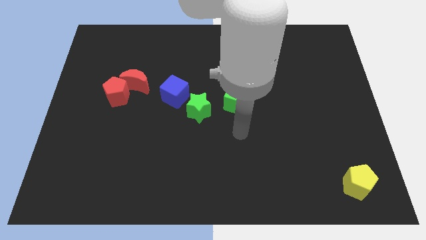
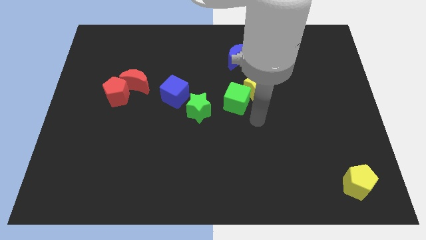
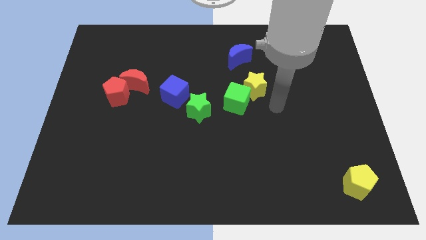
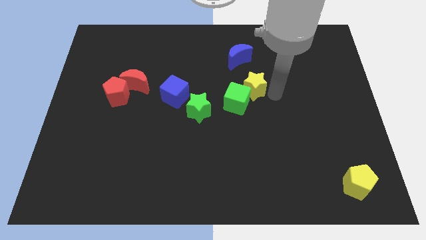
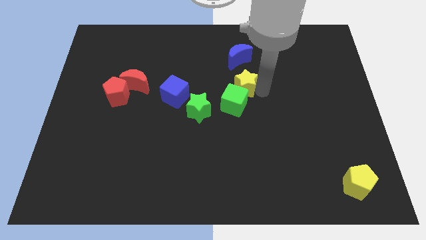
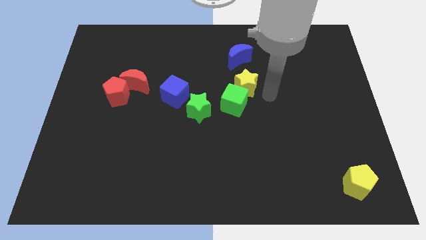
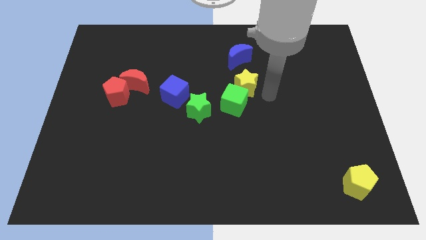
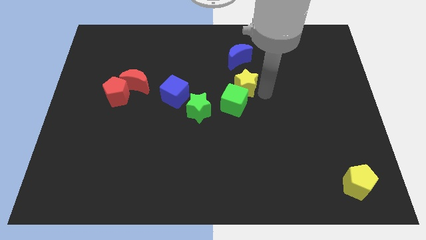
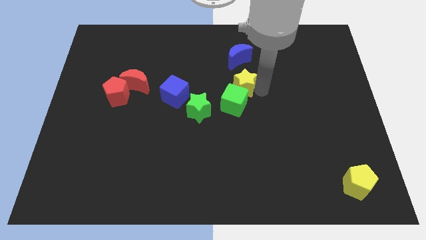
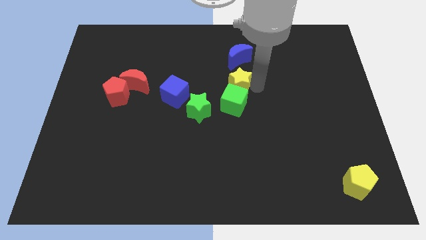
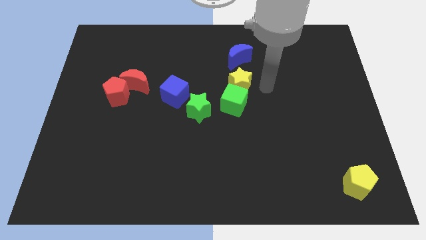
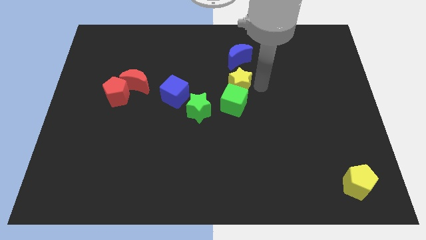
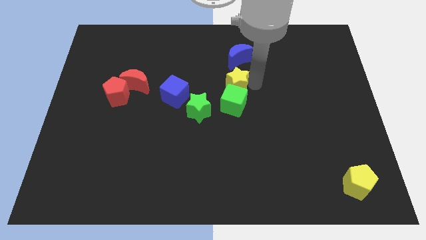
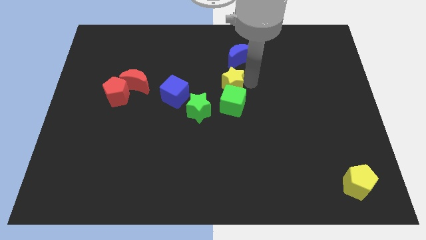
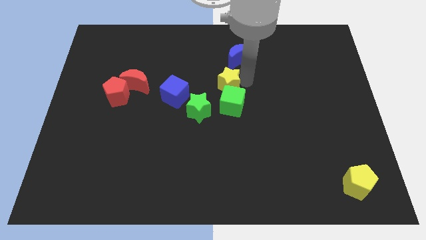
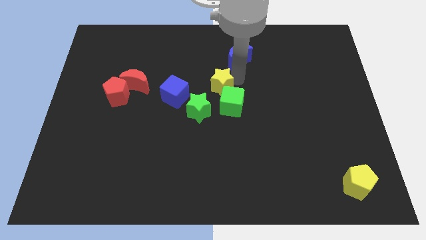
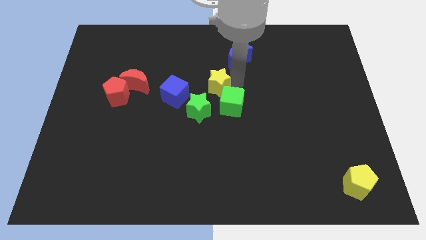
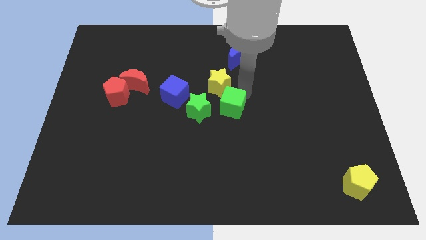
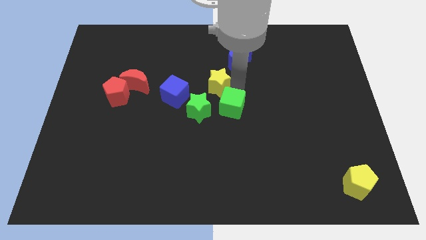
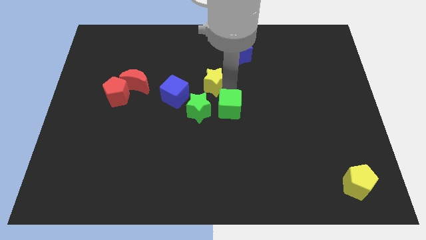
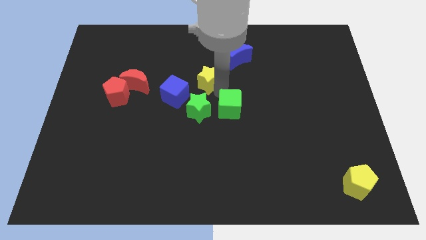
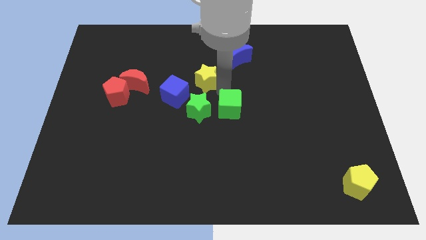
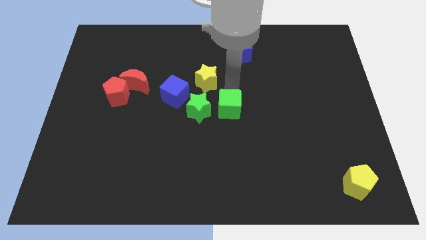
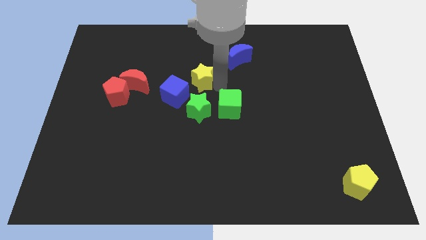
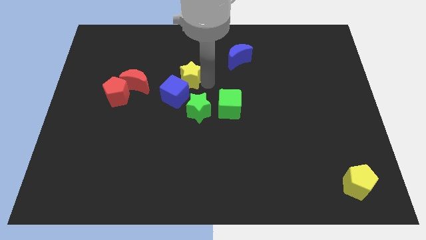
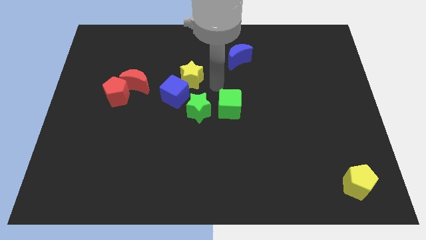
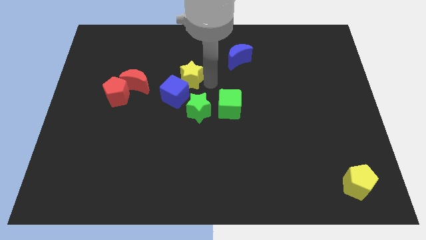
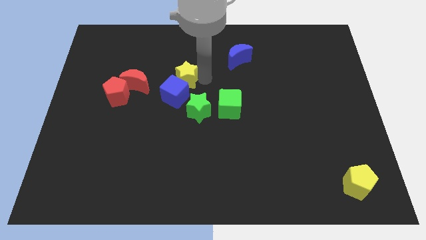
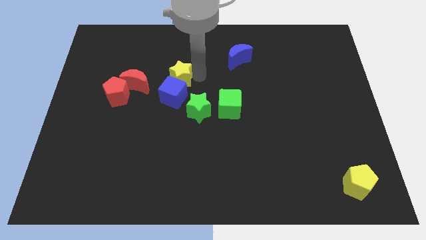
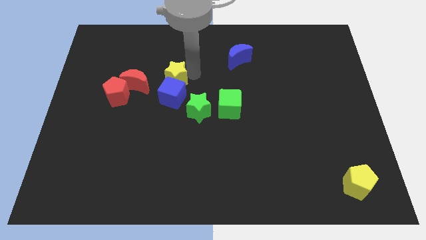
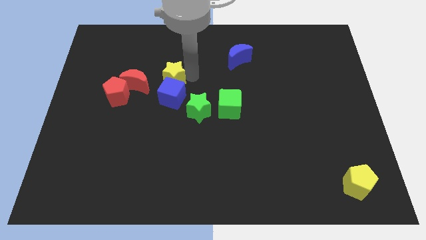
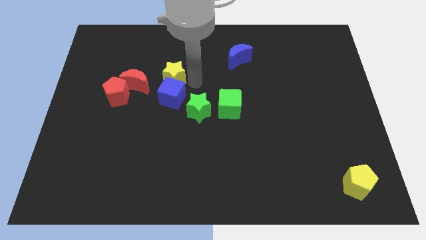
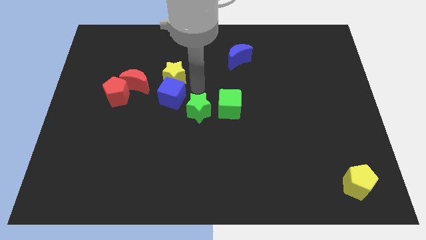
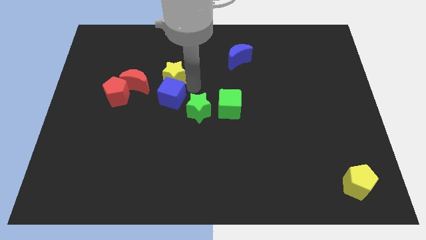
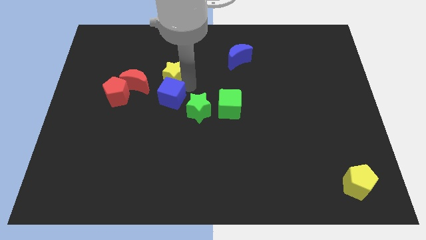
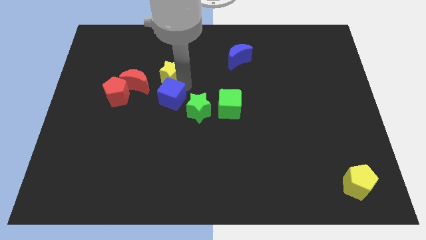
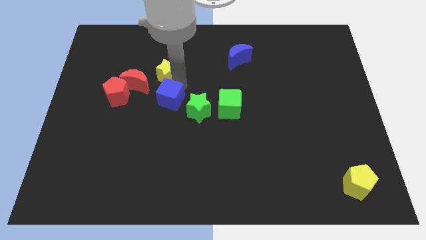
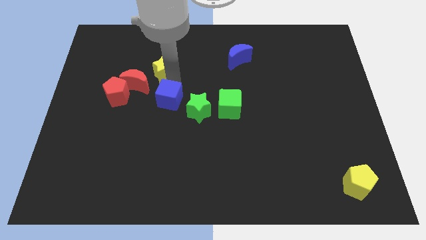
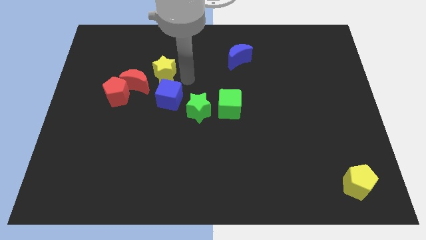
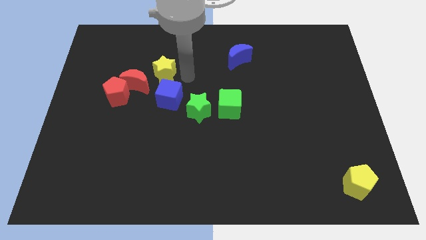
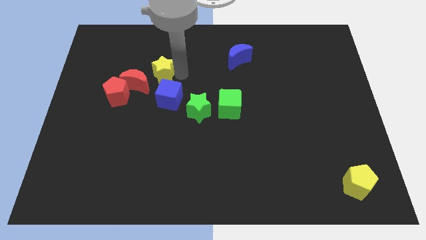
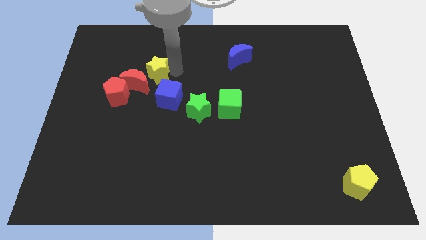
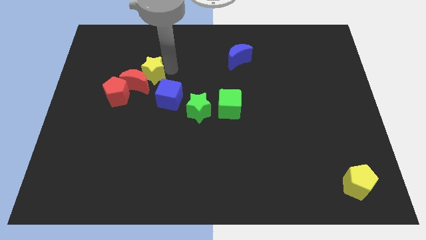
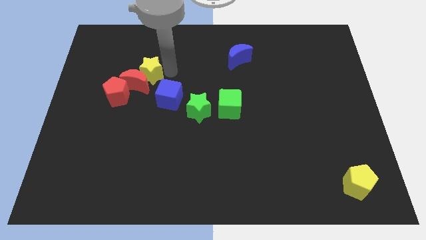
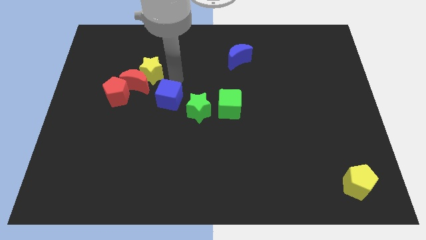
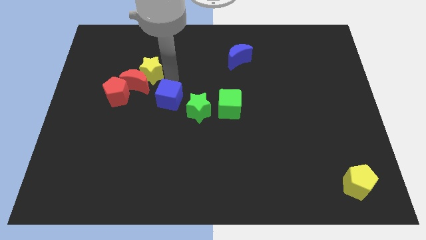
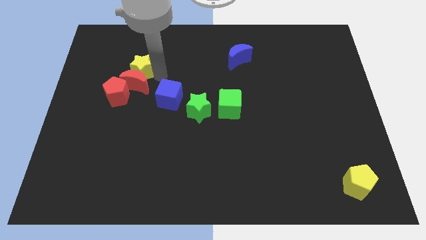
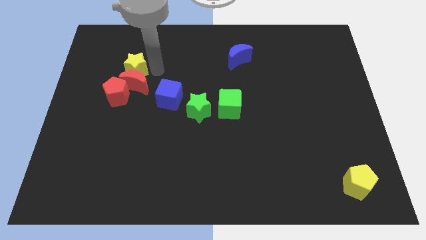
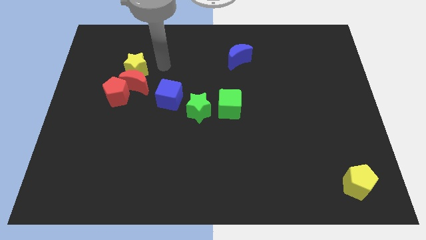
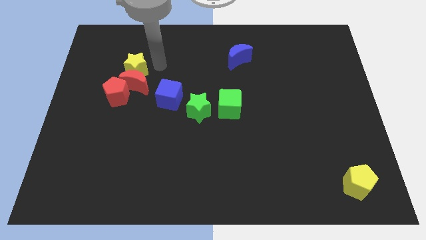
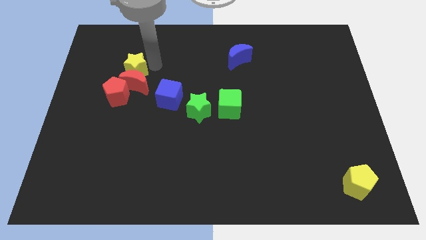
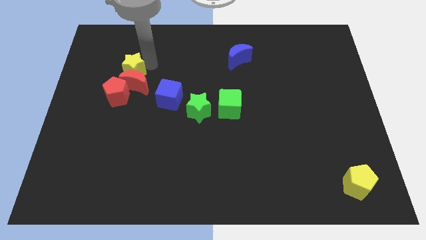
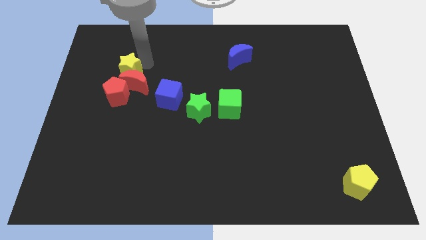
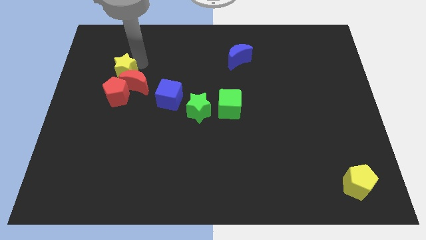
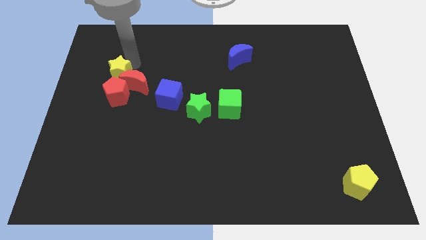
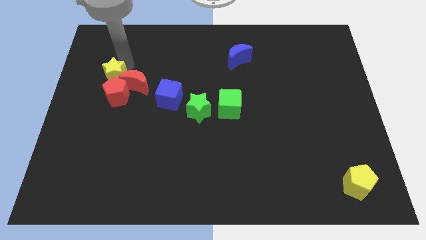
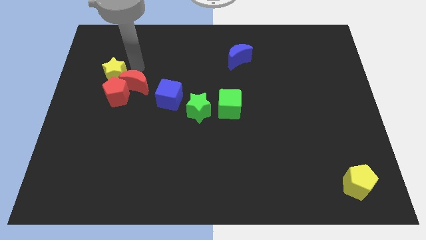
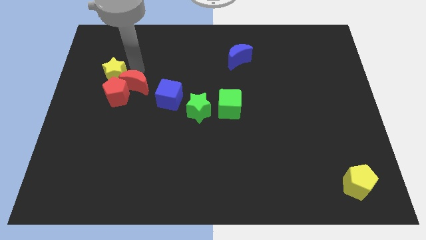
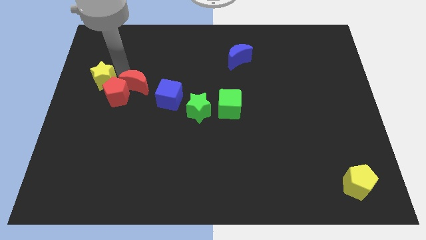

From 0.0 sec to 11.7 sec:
put the yellow star to the left side of the board

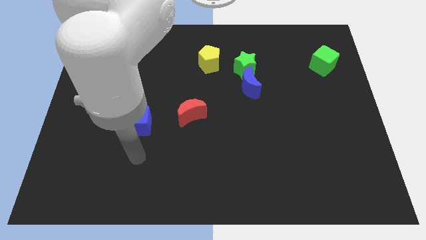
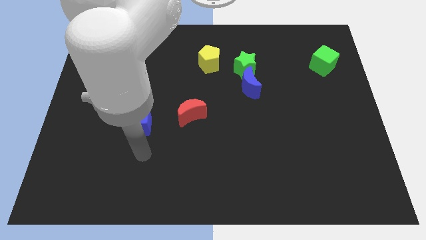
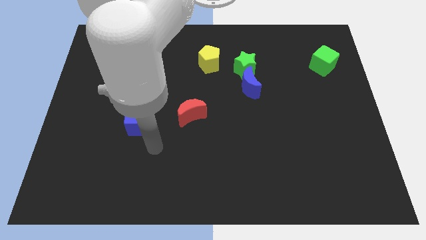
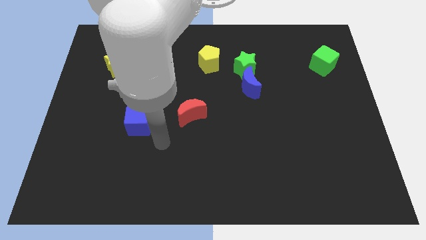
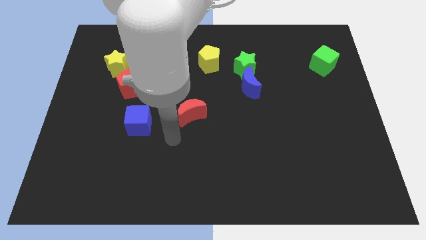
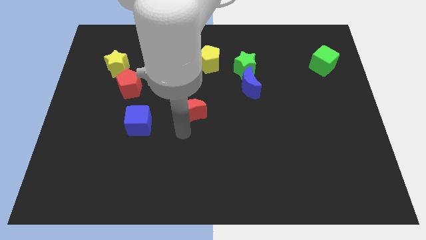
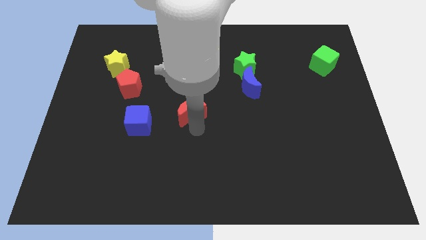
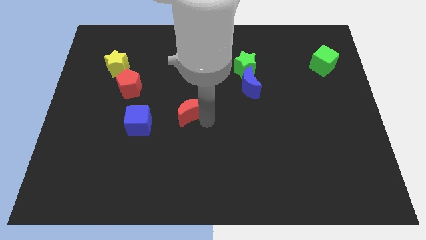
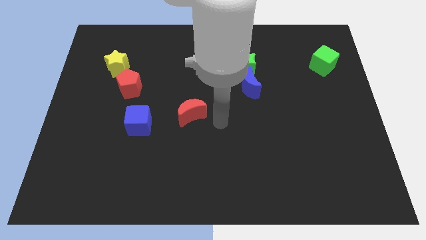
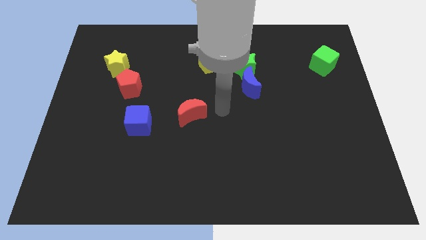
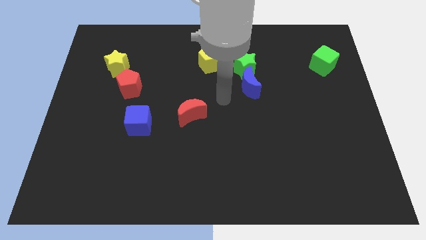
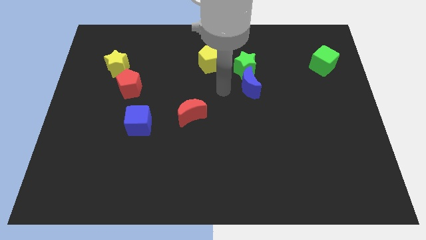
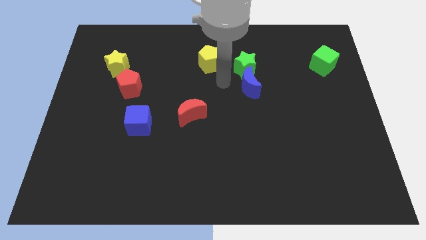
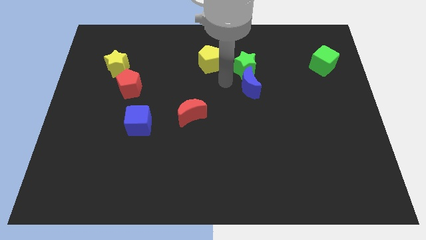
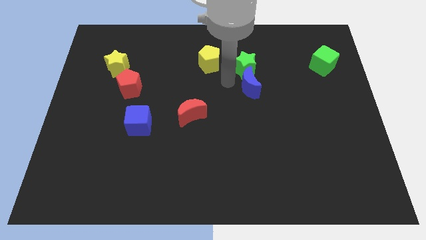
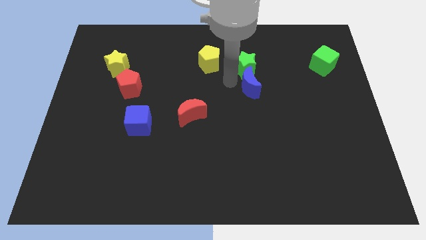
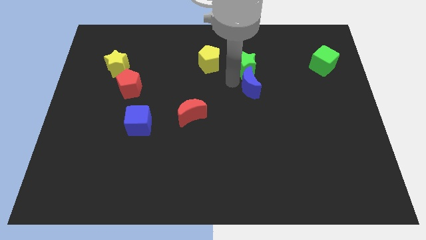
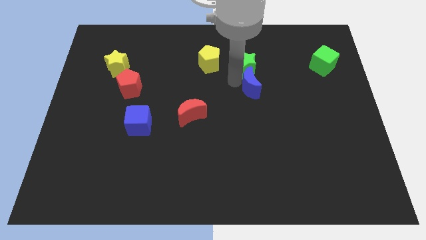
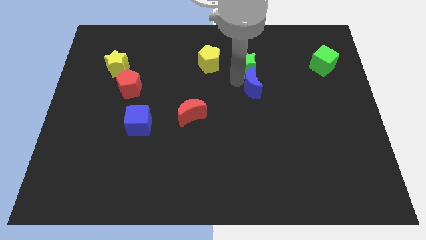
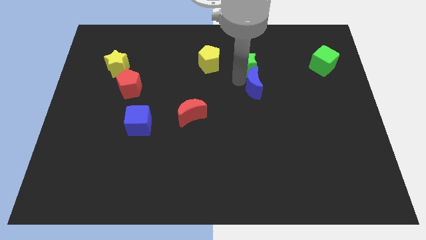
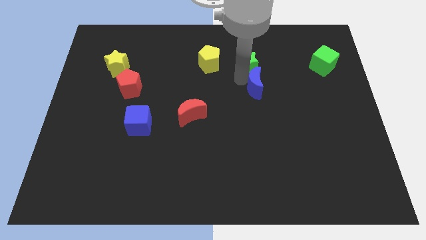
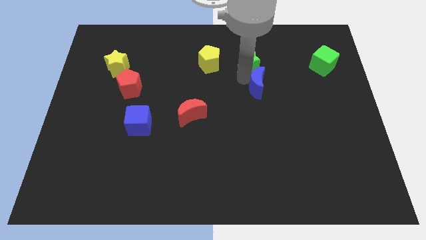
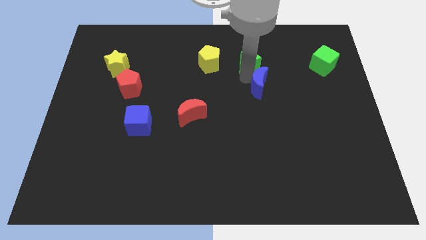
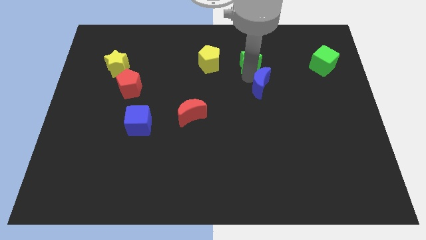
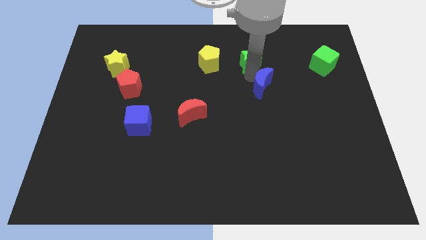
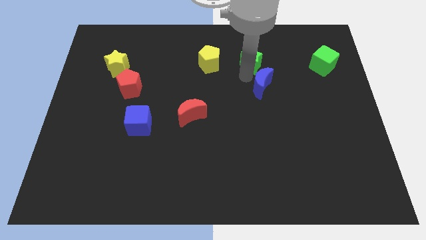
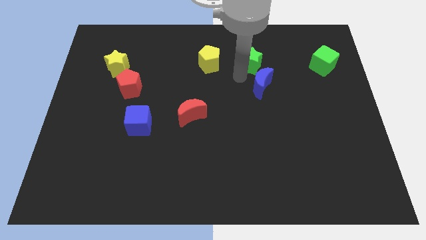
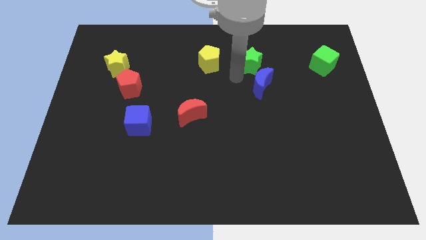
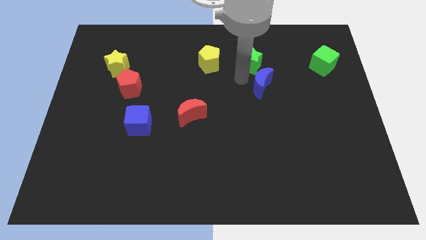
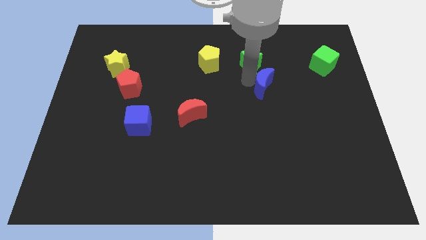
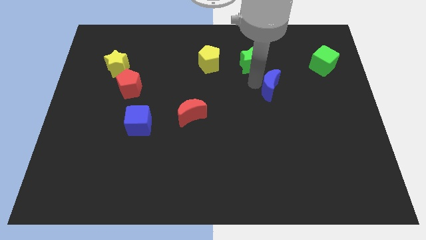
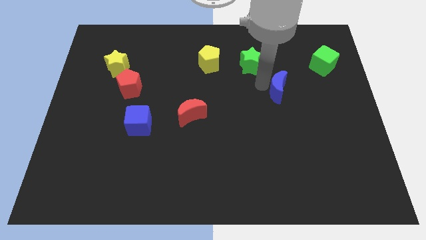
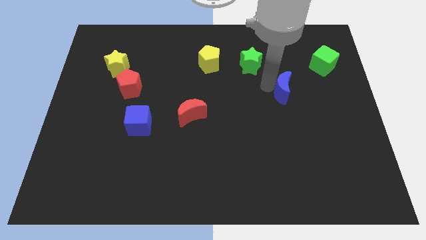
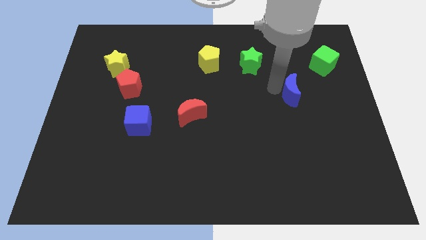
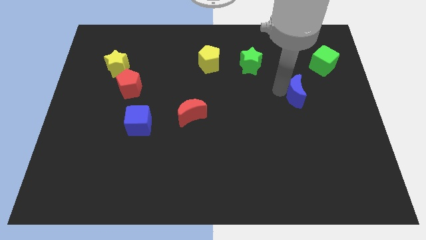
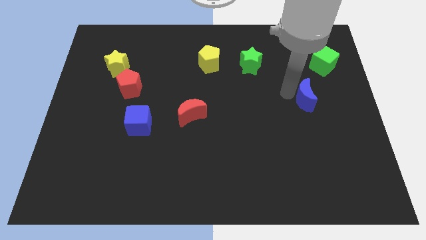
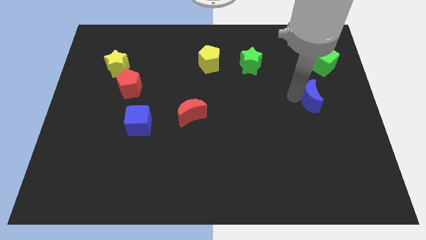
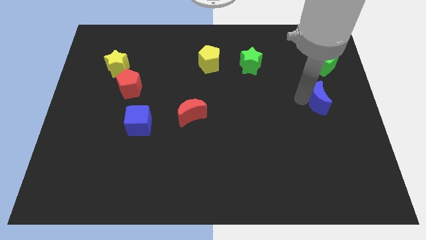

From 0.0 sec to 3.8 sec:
slide the blue moon to the right side
